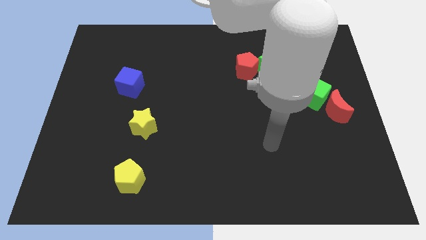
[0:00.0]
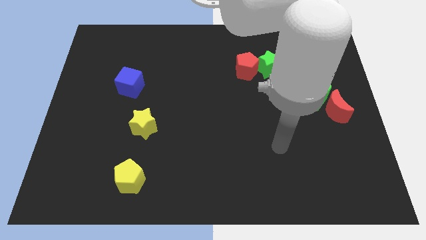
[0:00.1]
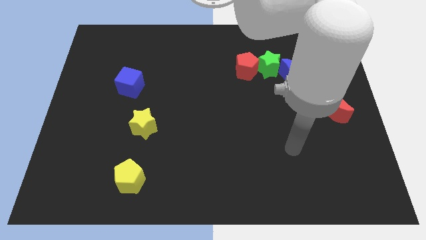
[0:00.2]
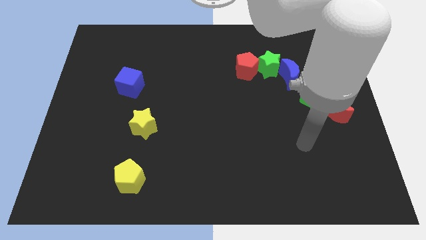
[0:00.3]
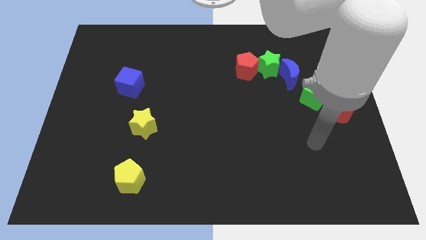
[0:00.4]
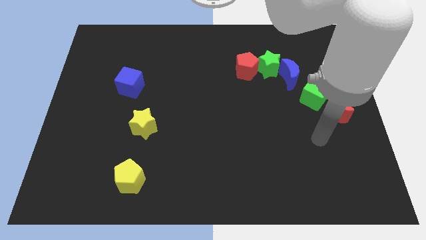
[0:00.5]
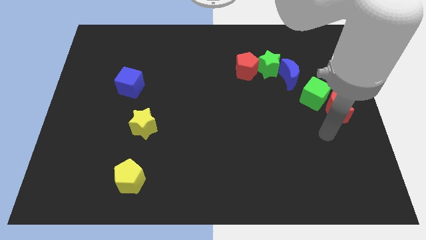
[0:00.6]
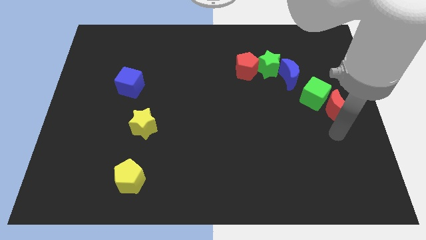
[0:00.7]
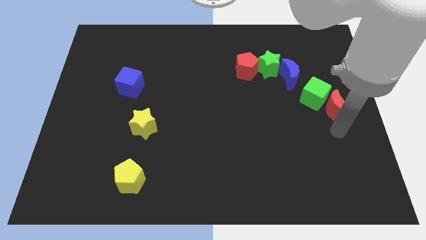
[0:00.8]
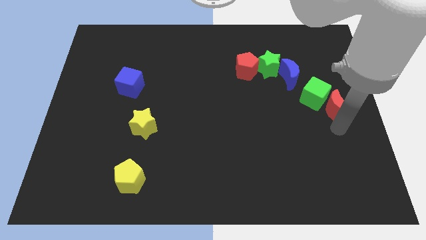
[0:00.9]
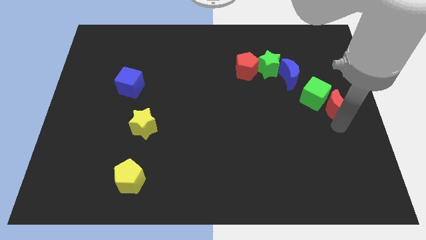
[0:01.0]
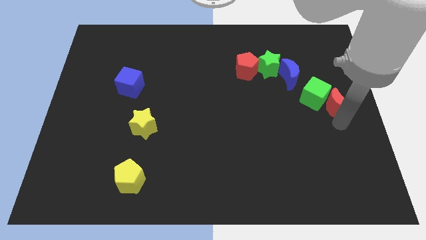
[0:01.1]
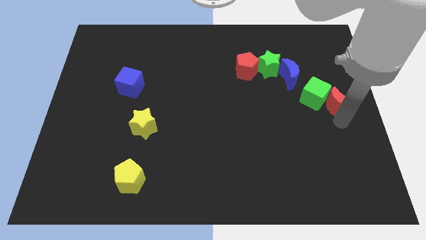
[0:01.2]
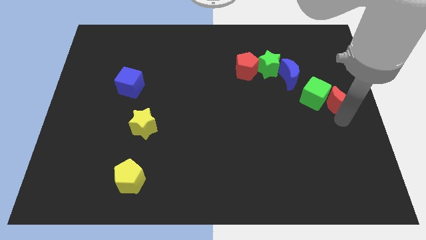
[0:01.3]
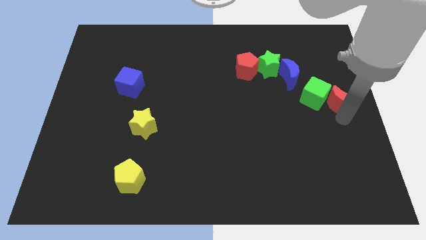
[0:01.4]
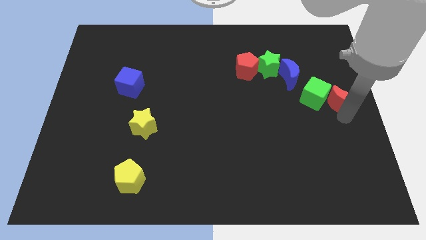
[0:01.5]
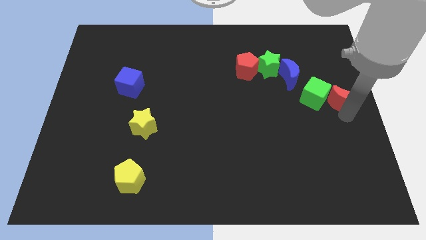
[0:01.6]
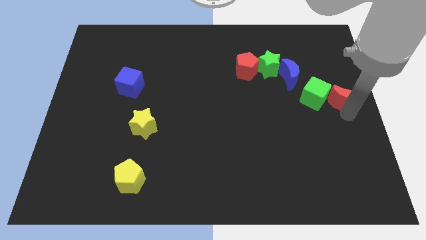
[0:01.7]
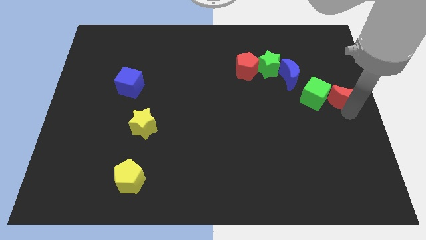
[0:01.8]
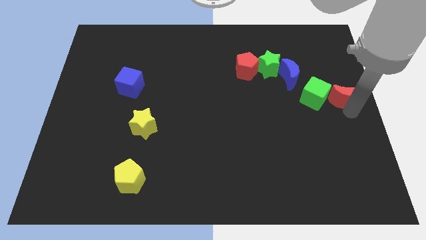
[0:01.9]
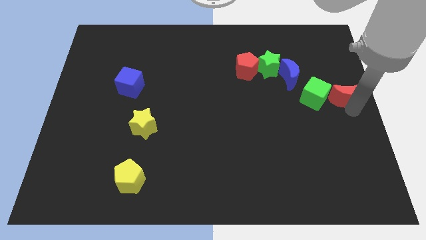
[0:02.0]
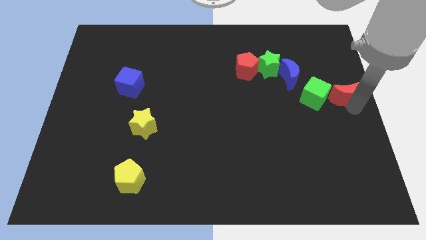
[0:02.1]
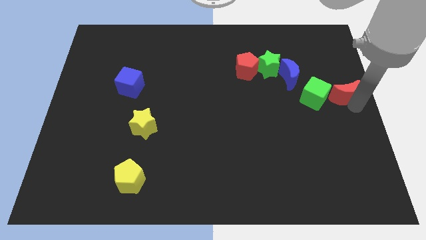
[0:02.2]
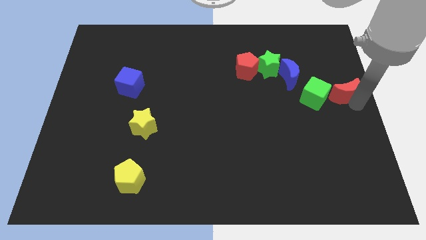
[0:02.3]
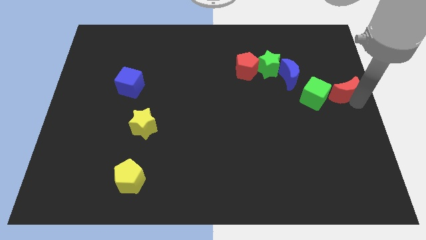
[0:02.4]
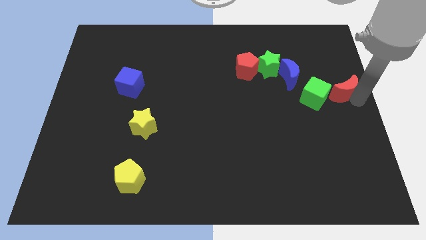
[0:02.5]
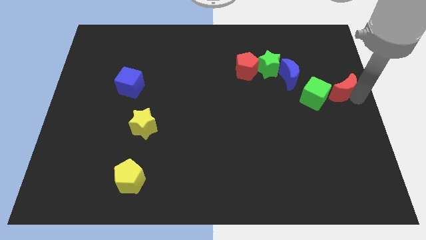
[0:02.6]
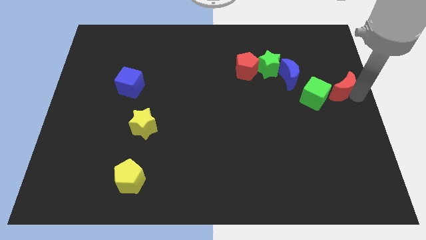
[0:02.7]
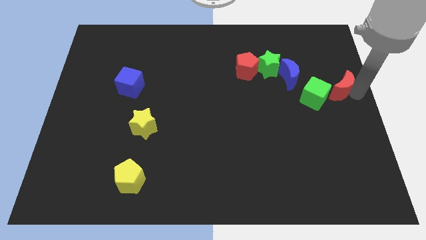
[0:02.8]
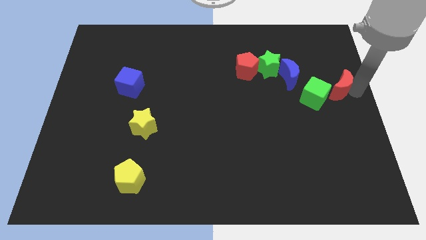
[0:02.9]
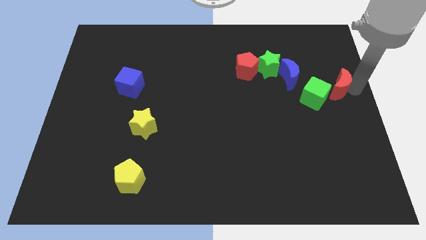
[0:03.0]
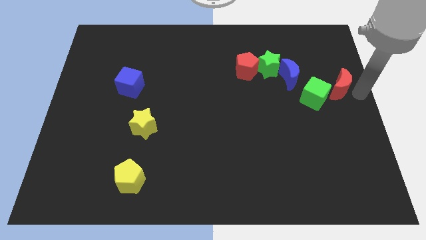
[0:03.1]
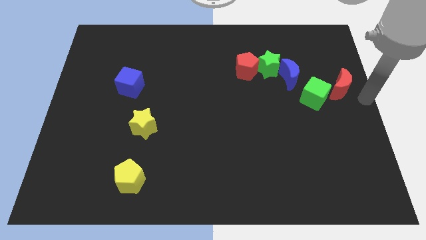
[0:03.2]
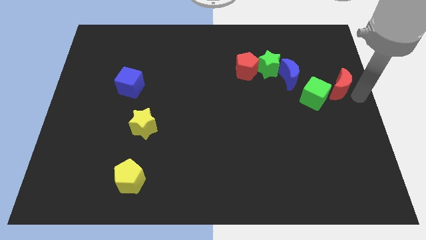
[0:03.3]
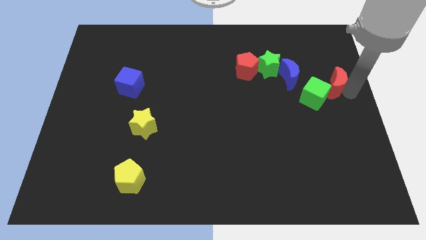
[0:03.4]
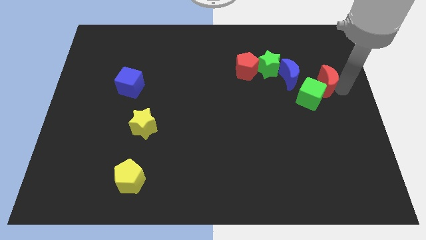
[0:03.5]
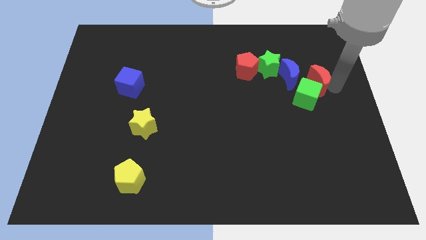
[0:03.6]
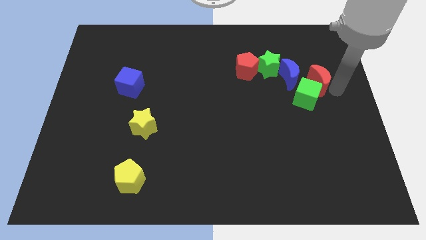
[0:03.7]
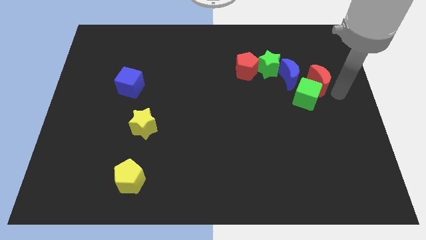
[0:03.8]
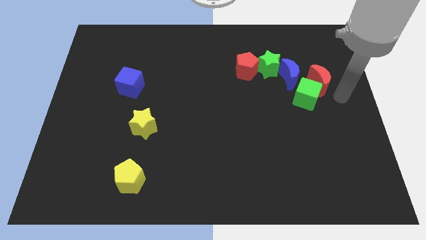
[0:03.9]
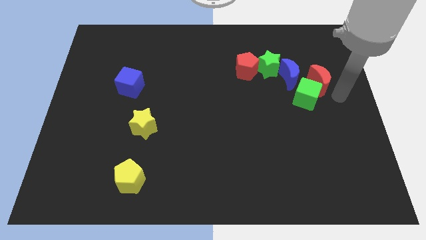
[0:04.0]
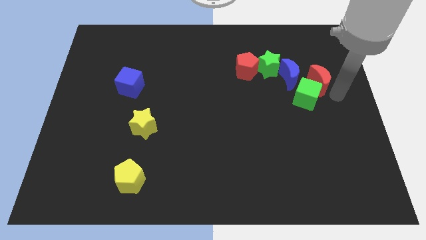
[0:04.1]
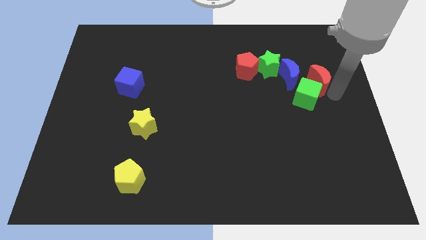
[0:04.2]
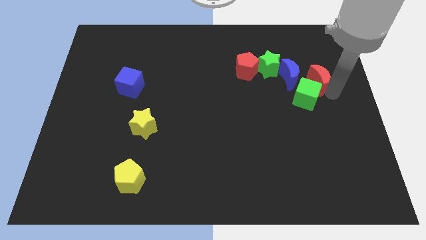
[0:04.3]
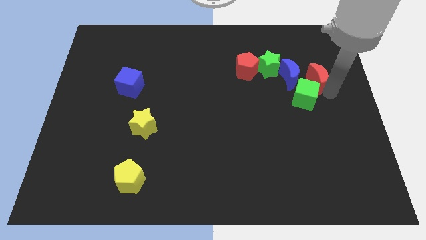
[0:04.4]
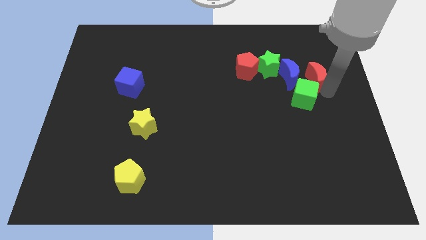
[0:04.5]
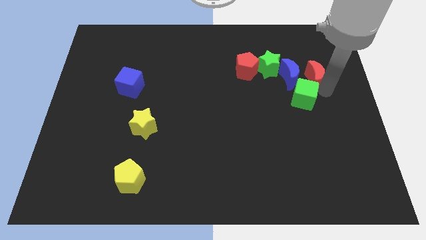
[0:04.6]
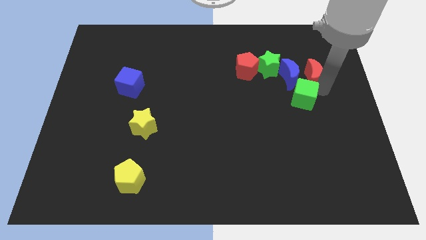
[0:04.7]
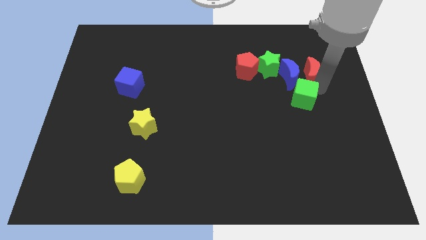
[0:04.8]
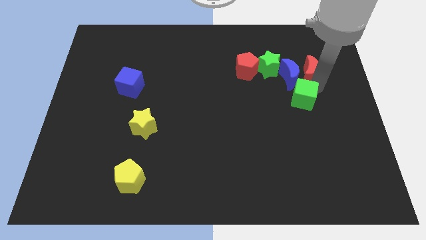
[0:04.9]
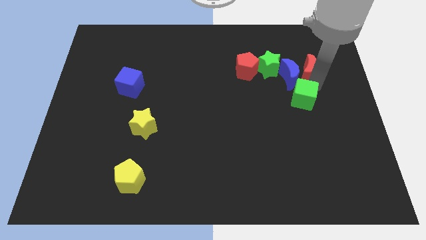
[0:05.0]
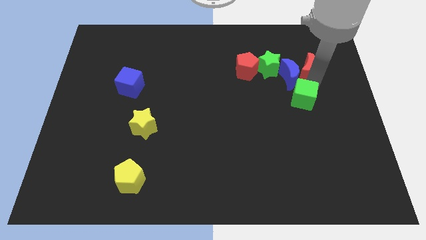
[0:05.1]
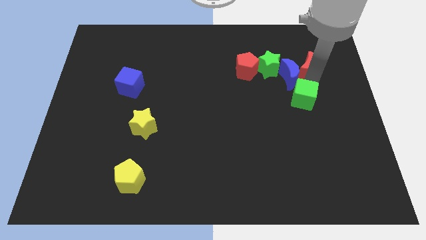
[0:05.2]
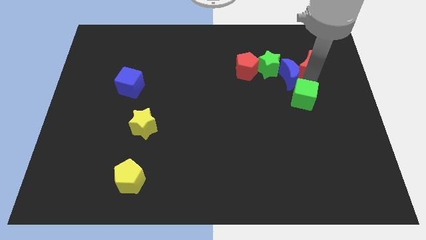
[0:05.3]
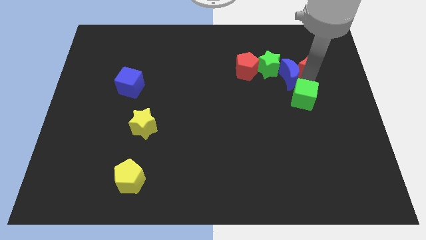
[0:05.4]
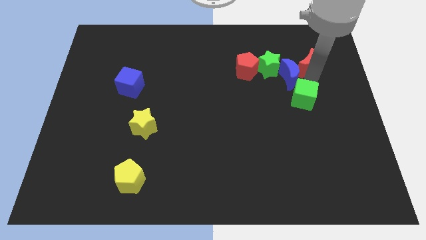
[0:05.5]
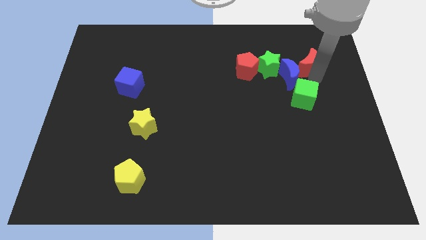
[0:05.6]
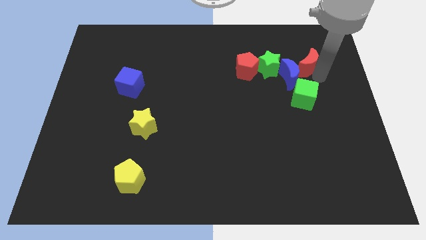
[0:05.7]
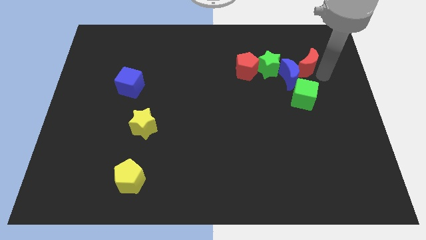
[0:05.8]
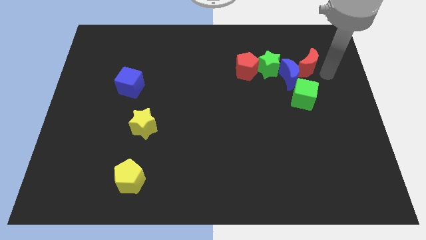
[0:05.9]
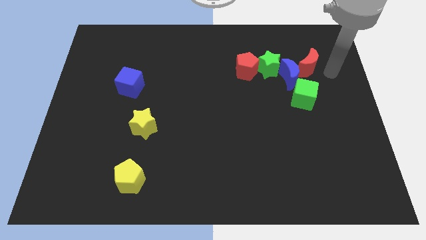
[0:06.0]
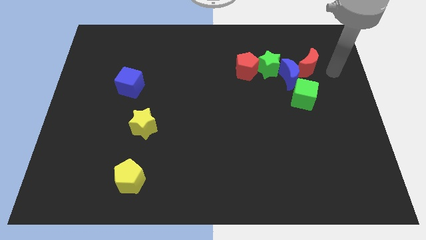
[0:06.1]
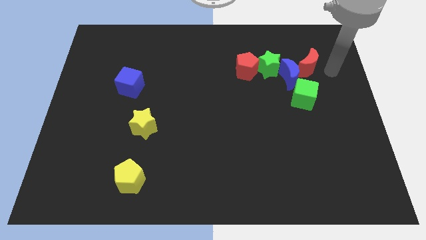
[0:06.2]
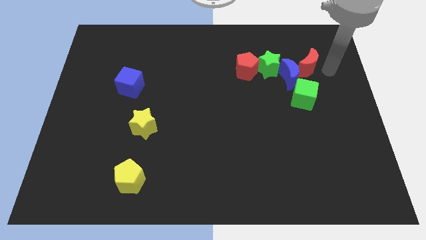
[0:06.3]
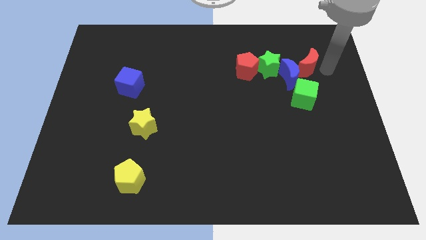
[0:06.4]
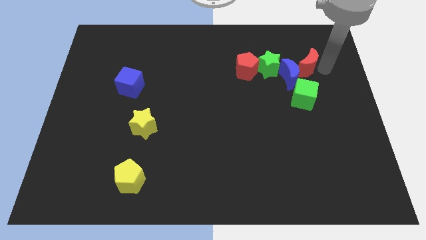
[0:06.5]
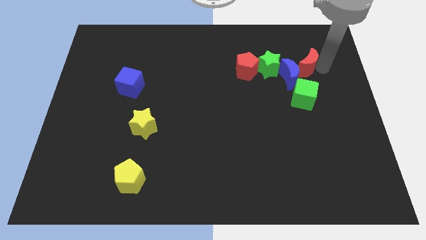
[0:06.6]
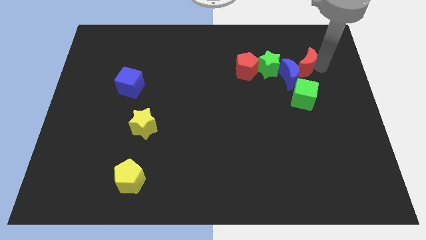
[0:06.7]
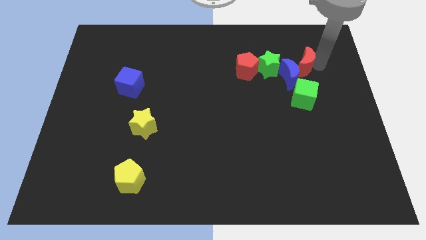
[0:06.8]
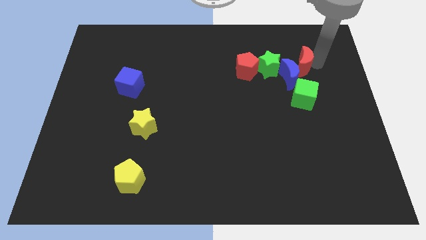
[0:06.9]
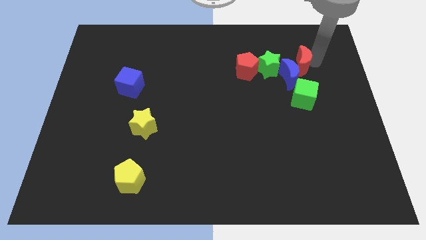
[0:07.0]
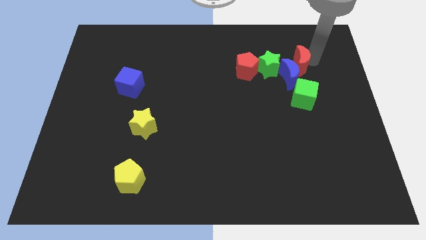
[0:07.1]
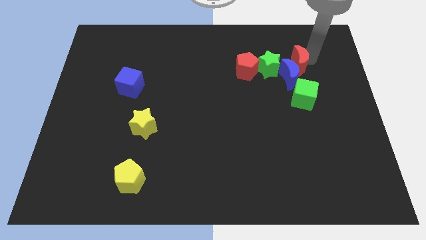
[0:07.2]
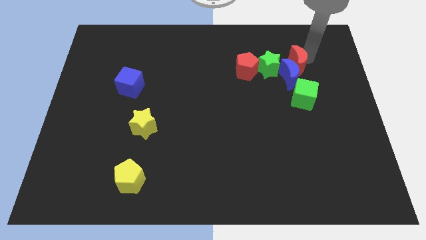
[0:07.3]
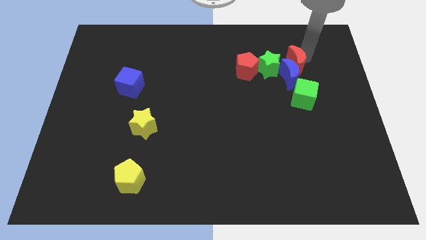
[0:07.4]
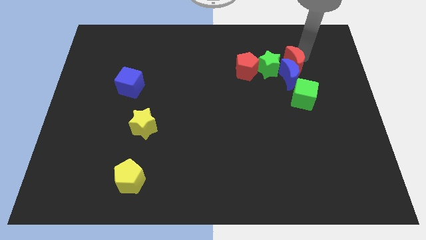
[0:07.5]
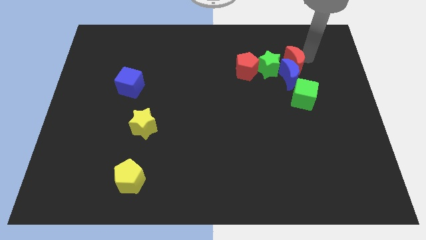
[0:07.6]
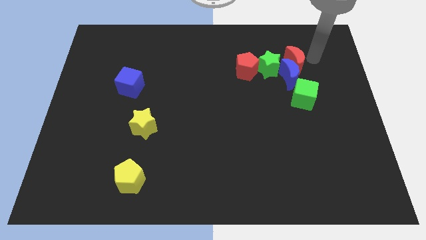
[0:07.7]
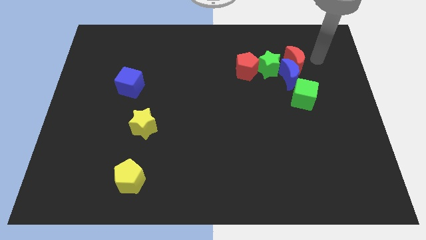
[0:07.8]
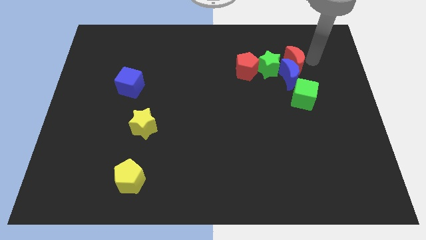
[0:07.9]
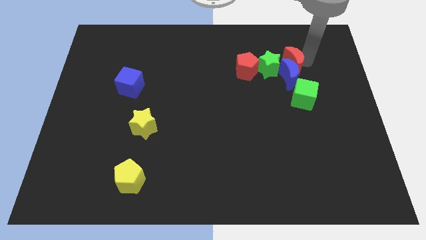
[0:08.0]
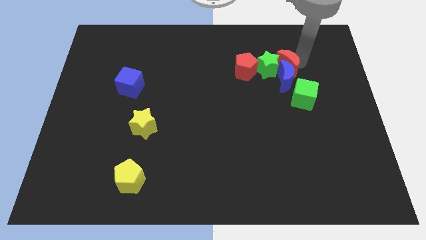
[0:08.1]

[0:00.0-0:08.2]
put the red moon towards the green star
